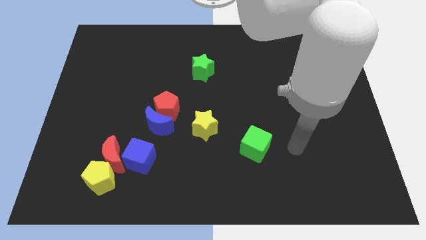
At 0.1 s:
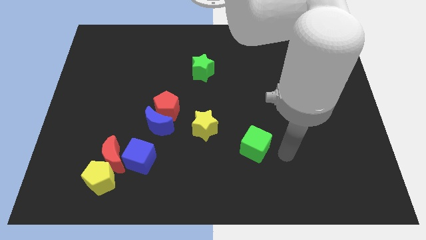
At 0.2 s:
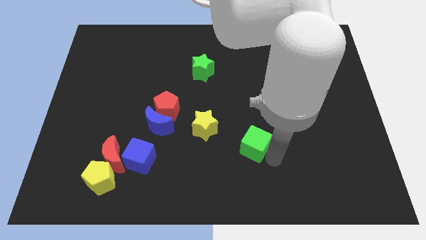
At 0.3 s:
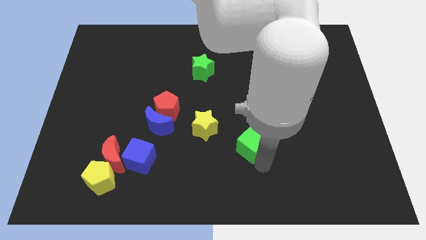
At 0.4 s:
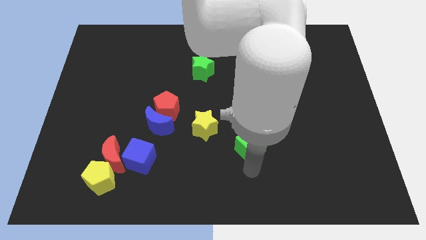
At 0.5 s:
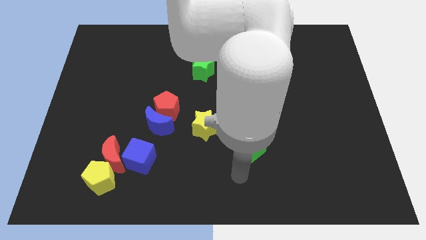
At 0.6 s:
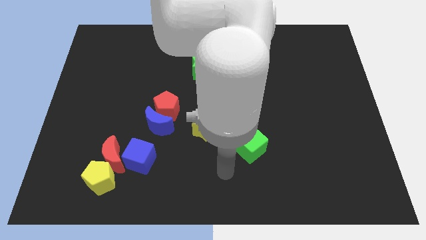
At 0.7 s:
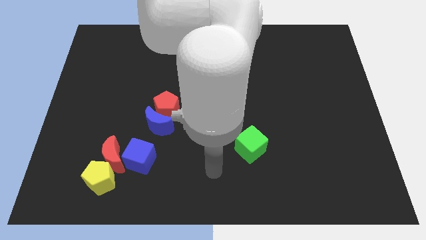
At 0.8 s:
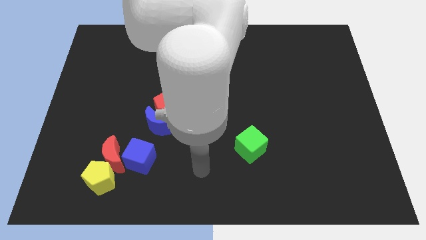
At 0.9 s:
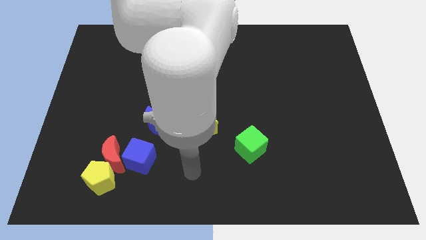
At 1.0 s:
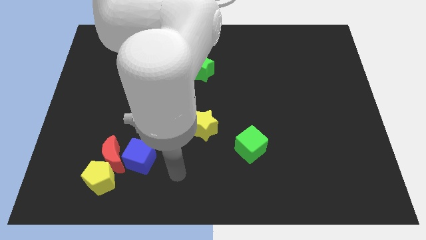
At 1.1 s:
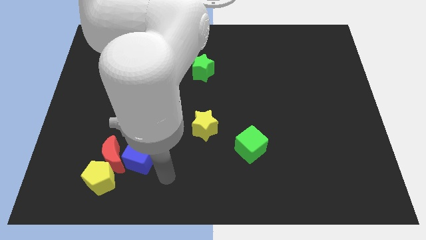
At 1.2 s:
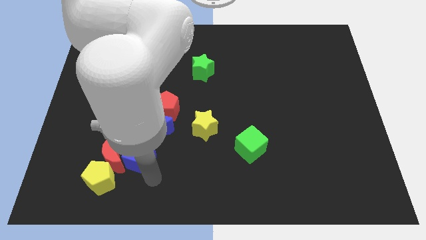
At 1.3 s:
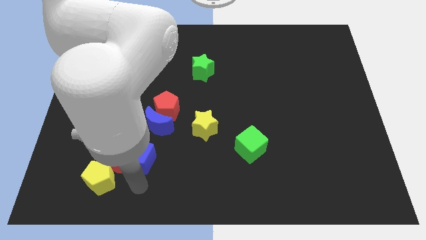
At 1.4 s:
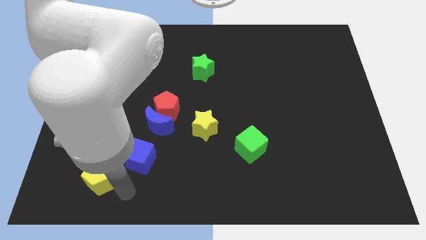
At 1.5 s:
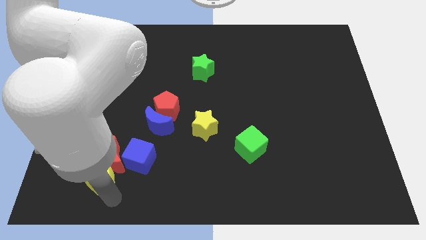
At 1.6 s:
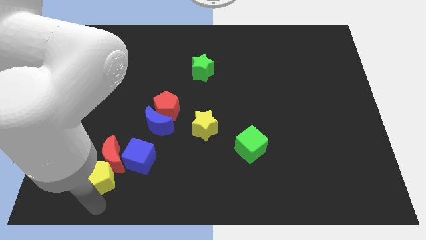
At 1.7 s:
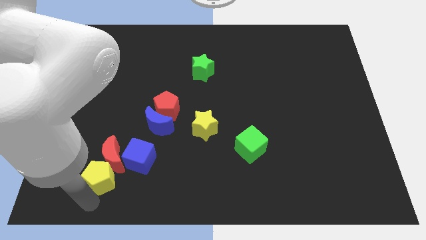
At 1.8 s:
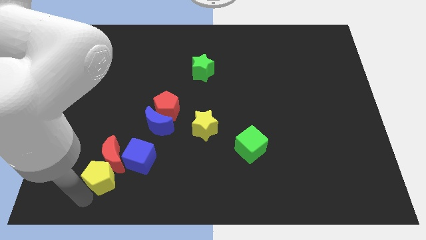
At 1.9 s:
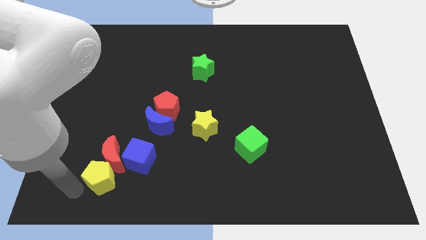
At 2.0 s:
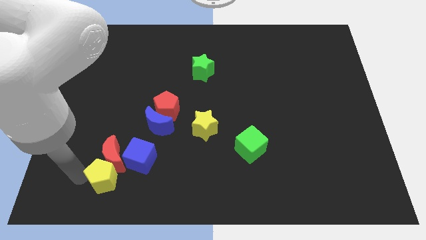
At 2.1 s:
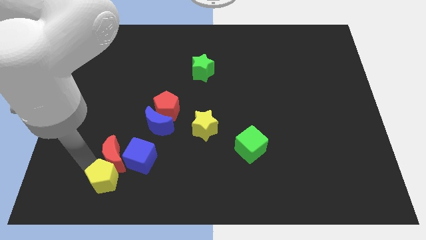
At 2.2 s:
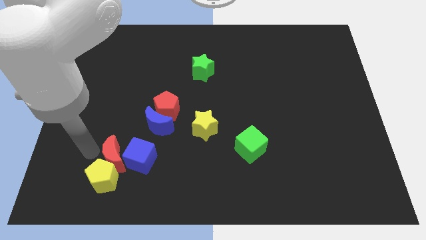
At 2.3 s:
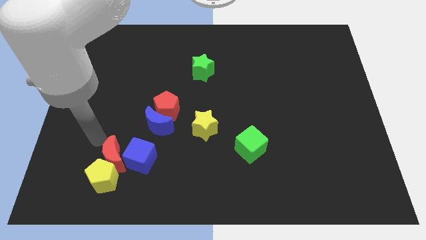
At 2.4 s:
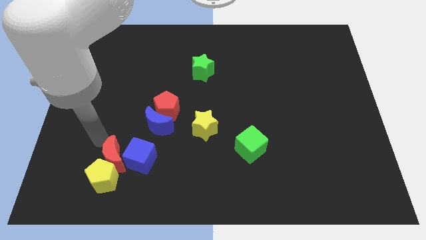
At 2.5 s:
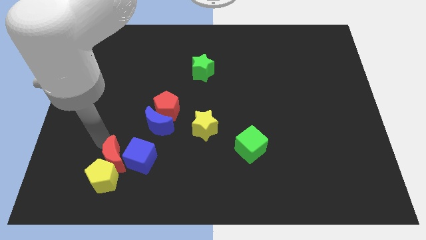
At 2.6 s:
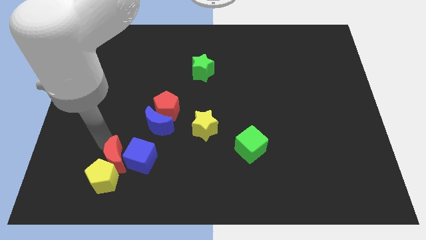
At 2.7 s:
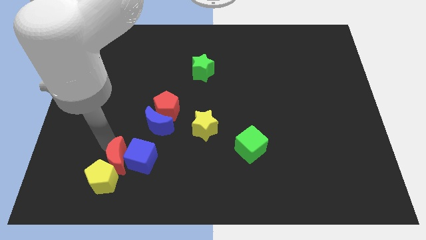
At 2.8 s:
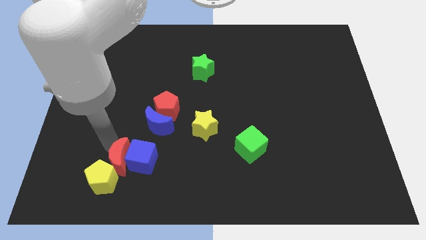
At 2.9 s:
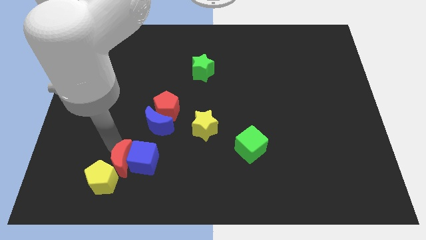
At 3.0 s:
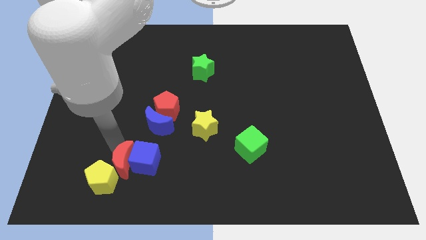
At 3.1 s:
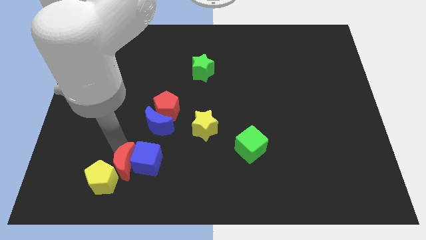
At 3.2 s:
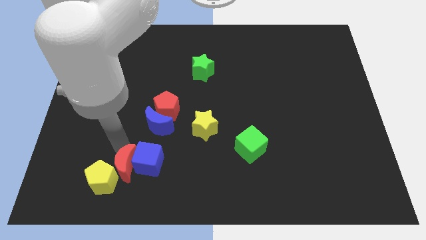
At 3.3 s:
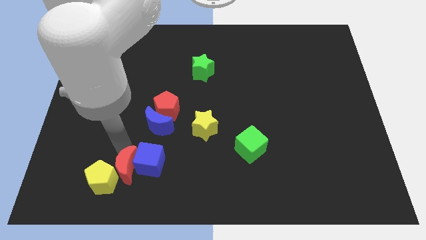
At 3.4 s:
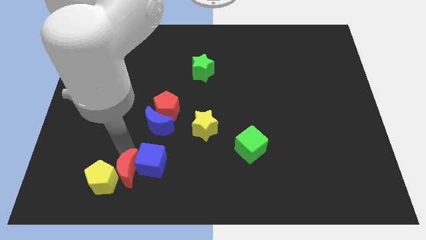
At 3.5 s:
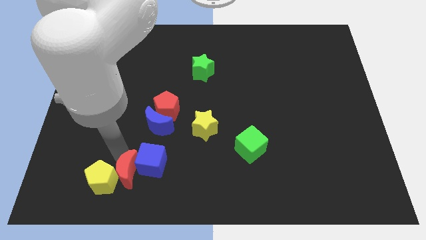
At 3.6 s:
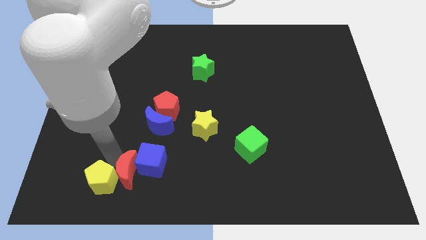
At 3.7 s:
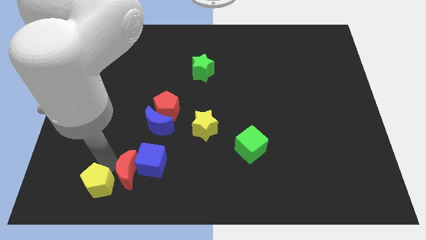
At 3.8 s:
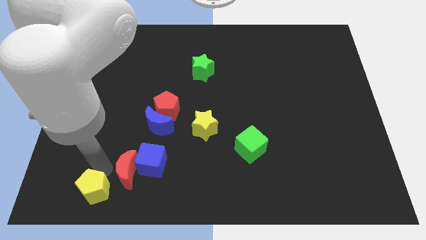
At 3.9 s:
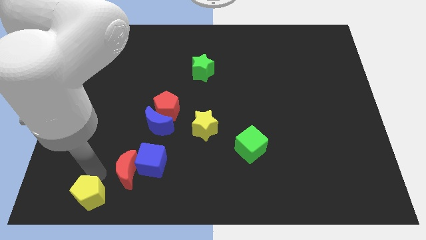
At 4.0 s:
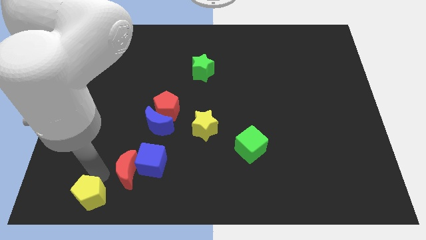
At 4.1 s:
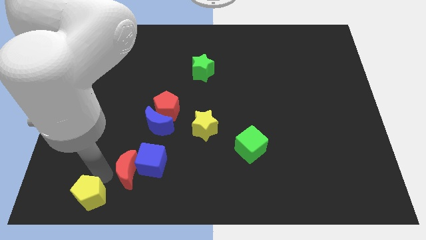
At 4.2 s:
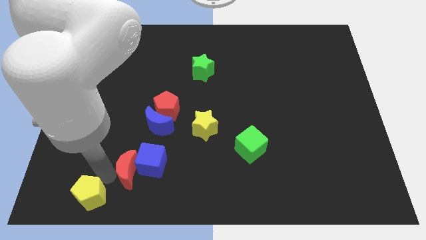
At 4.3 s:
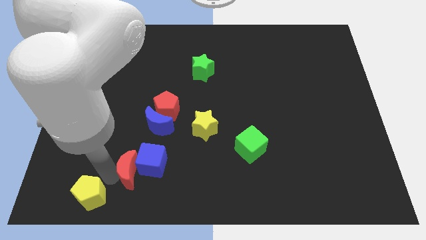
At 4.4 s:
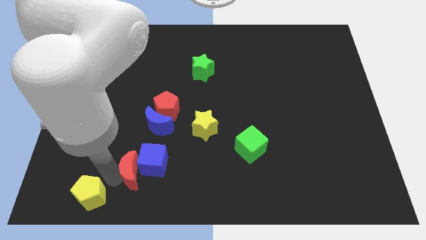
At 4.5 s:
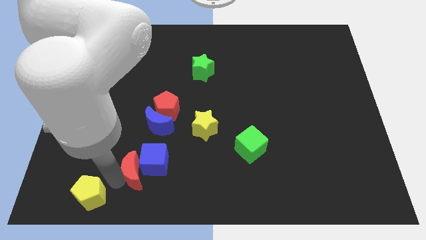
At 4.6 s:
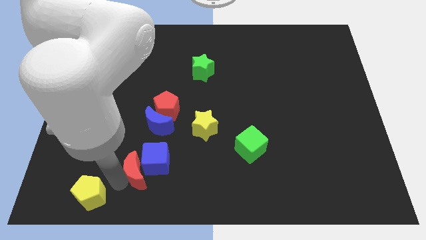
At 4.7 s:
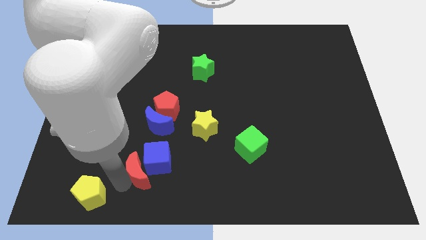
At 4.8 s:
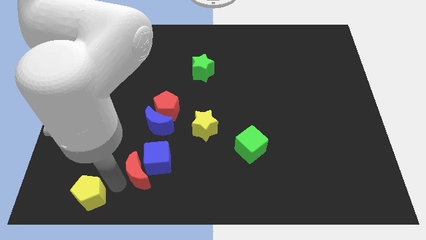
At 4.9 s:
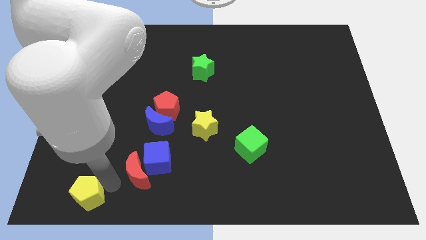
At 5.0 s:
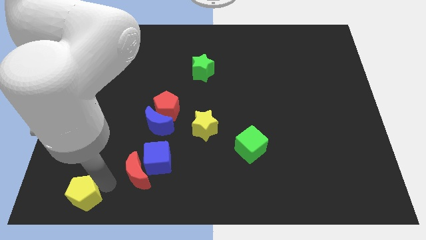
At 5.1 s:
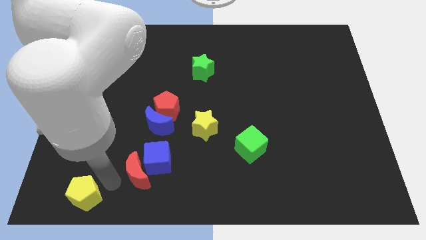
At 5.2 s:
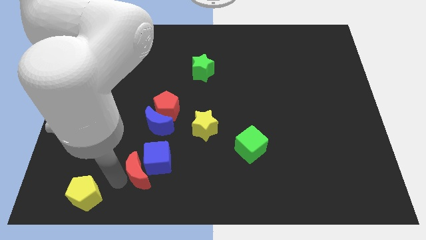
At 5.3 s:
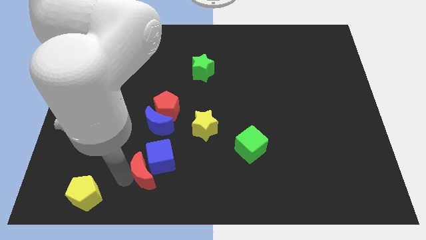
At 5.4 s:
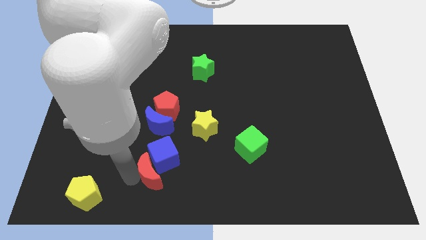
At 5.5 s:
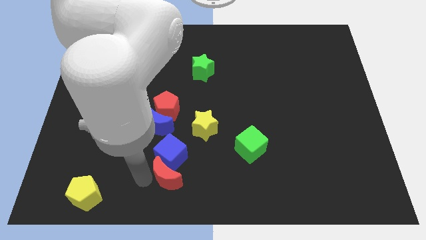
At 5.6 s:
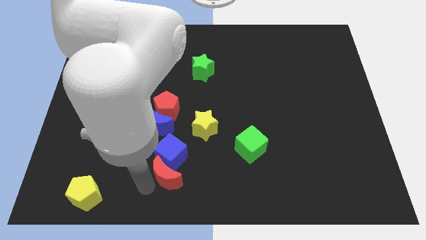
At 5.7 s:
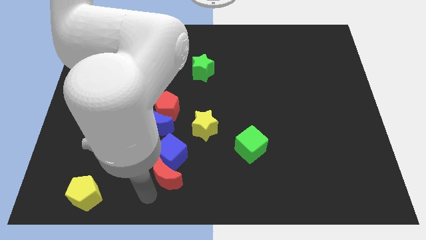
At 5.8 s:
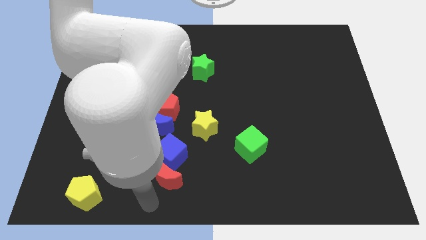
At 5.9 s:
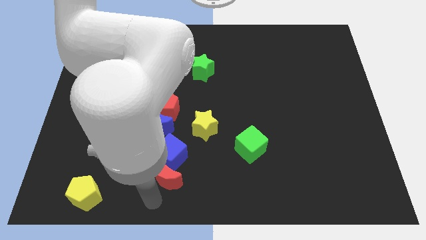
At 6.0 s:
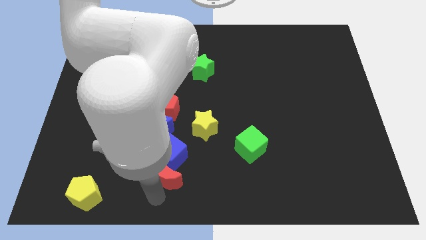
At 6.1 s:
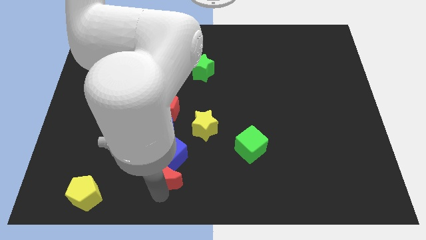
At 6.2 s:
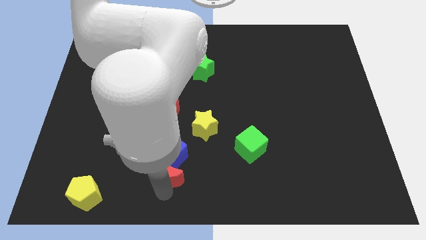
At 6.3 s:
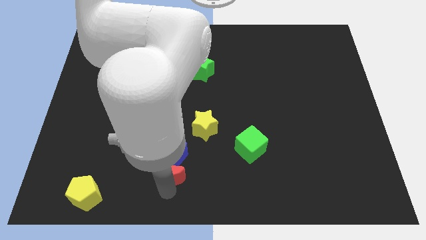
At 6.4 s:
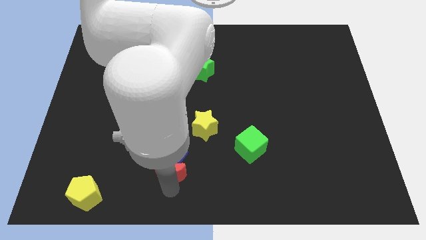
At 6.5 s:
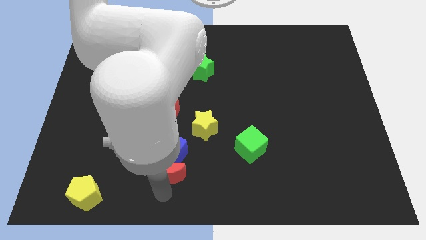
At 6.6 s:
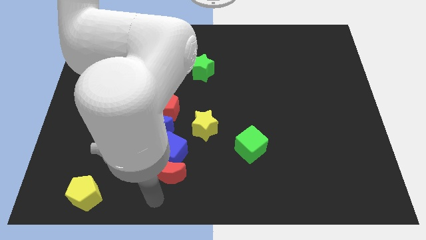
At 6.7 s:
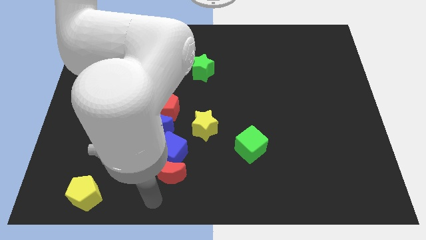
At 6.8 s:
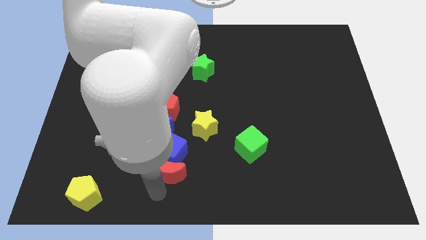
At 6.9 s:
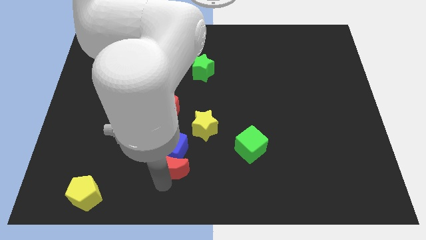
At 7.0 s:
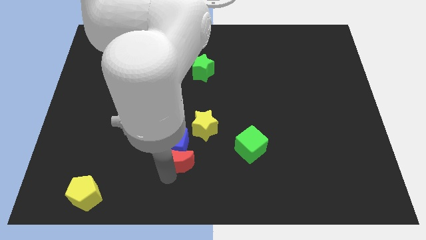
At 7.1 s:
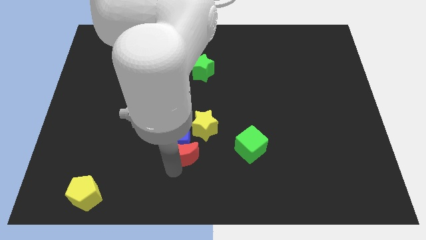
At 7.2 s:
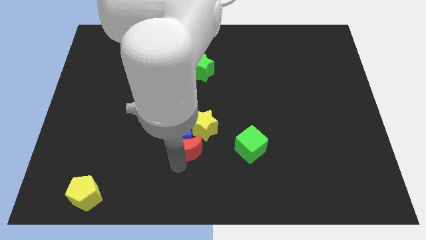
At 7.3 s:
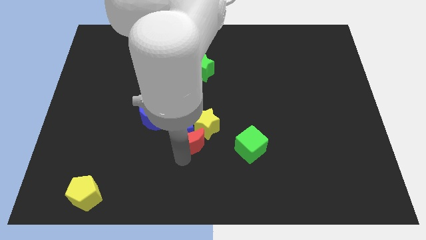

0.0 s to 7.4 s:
slide the red moon close to the yellow star

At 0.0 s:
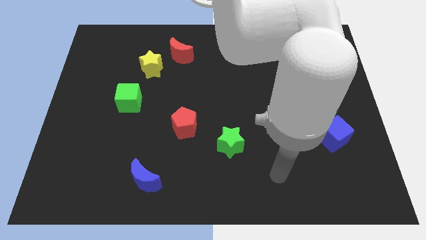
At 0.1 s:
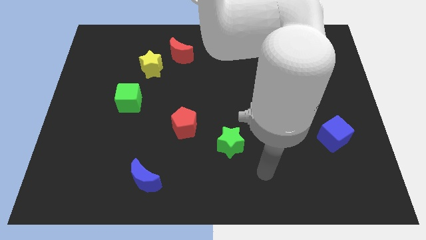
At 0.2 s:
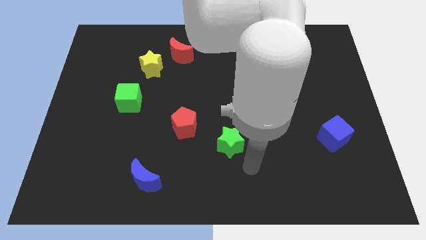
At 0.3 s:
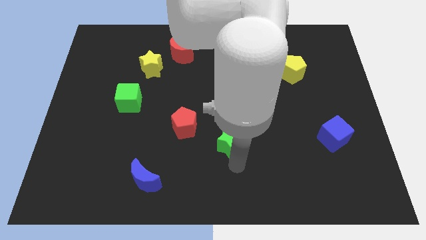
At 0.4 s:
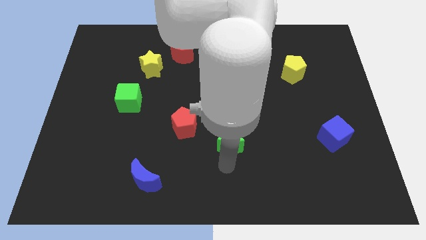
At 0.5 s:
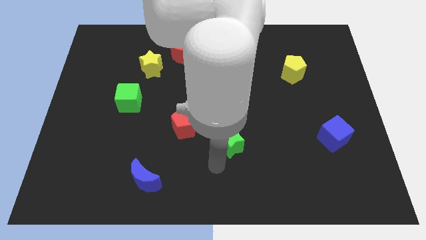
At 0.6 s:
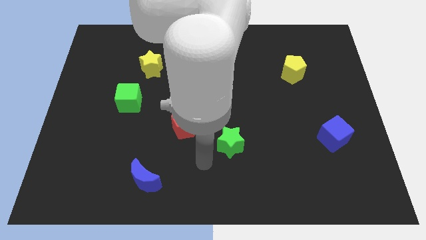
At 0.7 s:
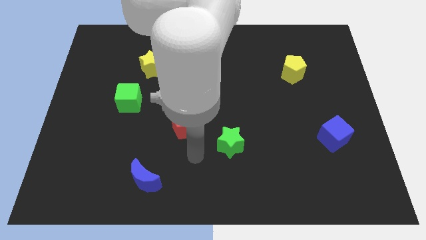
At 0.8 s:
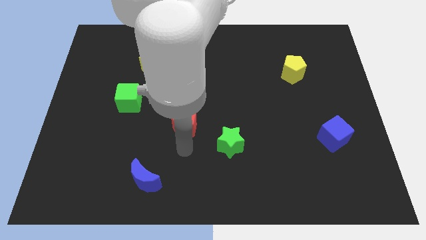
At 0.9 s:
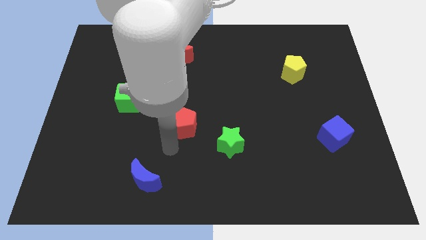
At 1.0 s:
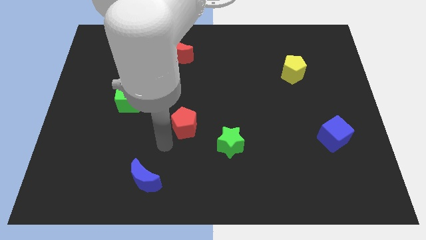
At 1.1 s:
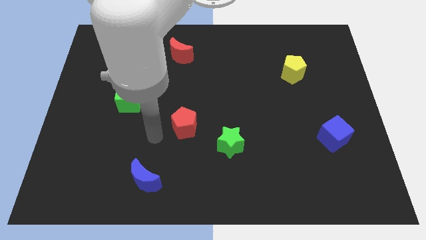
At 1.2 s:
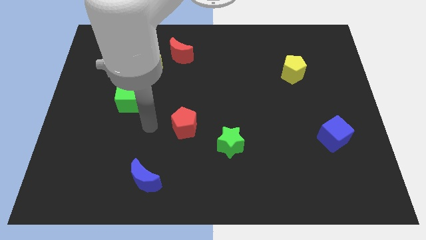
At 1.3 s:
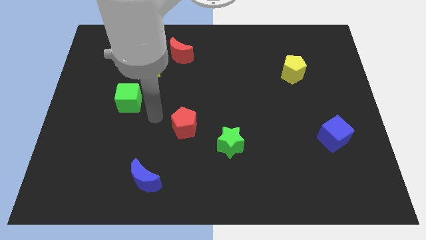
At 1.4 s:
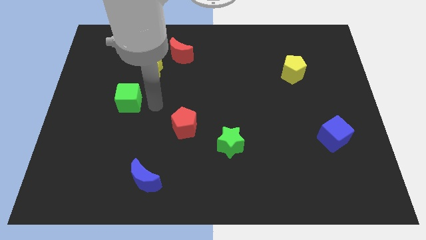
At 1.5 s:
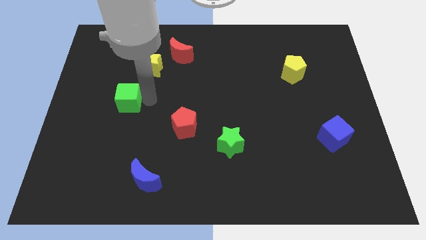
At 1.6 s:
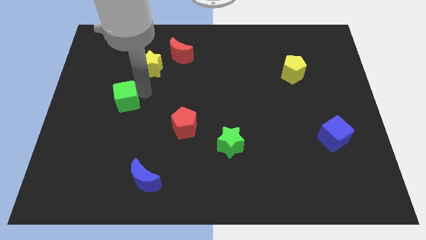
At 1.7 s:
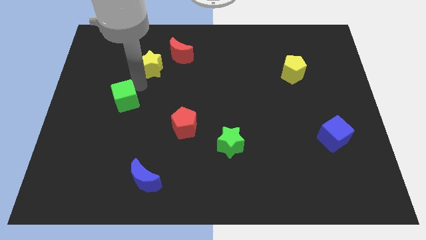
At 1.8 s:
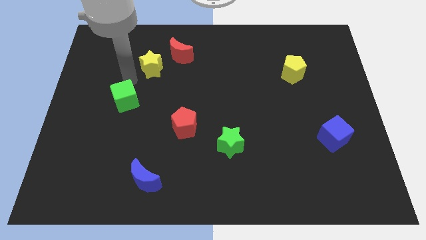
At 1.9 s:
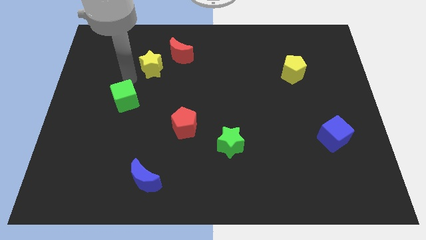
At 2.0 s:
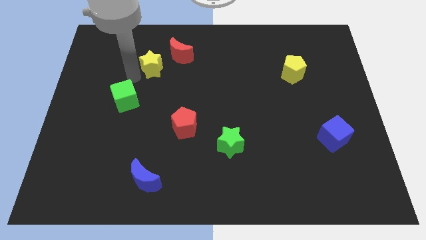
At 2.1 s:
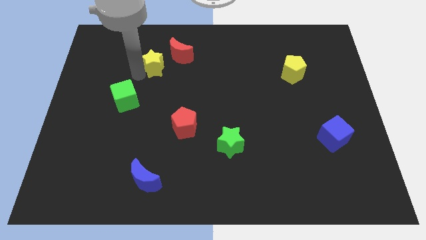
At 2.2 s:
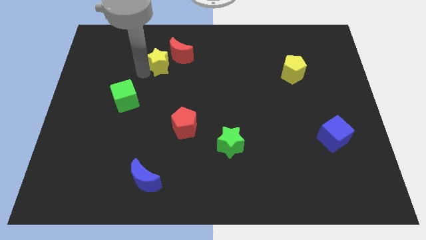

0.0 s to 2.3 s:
slide the yellow star towards the red moon
